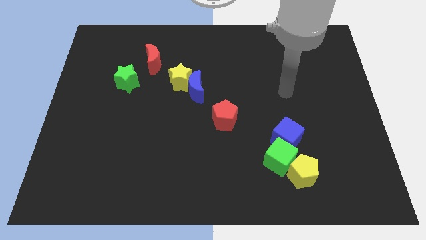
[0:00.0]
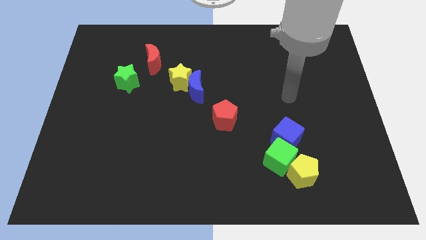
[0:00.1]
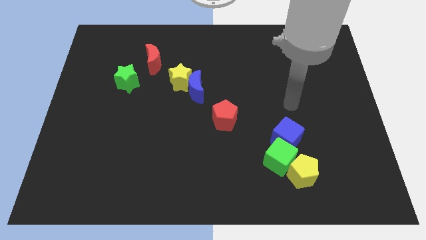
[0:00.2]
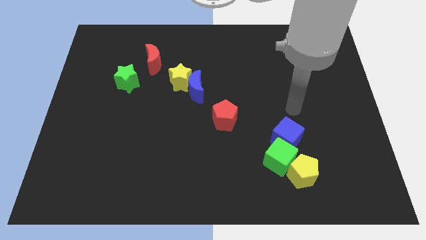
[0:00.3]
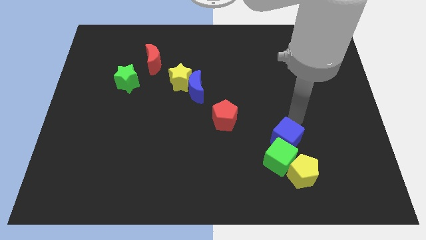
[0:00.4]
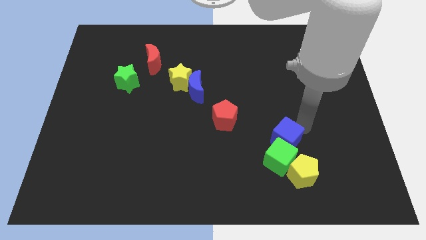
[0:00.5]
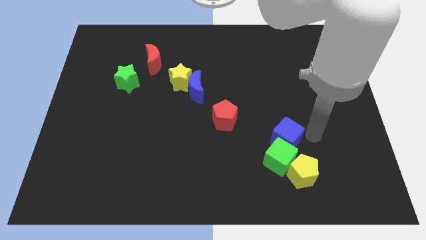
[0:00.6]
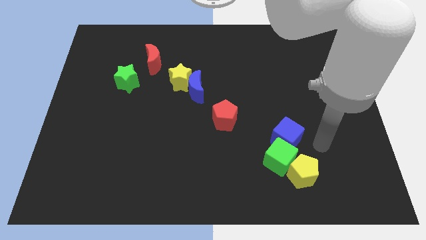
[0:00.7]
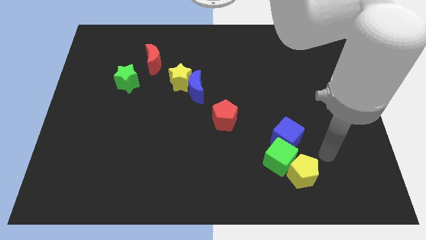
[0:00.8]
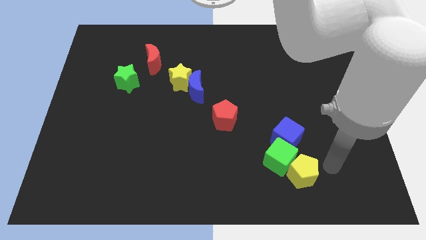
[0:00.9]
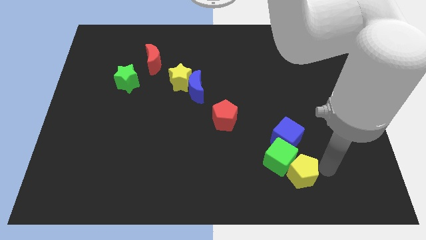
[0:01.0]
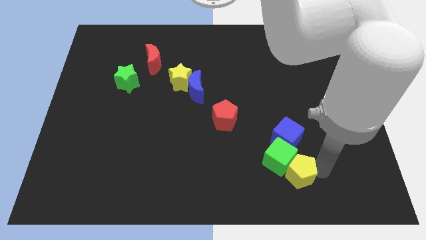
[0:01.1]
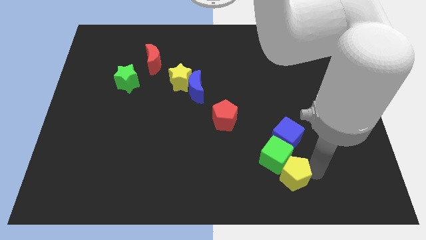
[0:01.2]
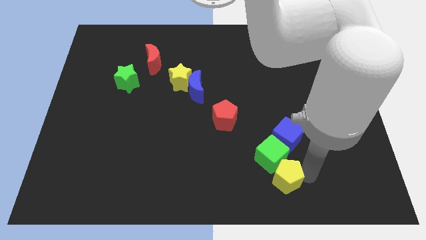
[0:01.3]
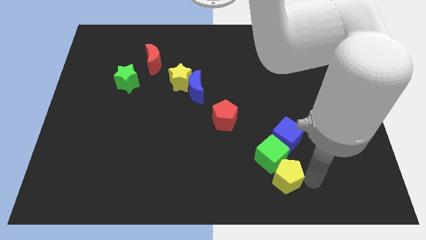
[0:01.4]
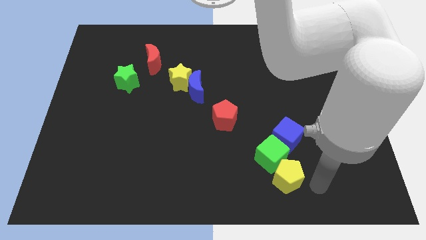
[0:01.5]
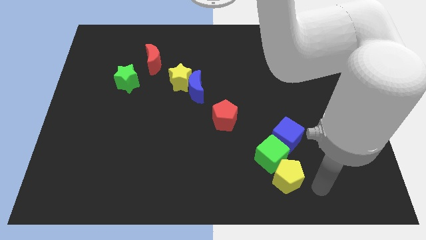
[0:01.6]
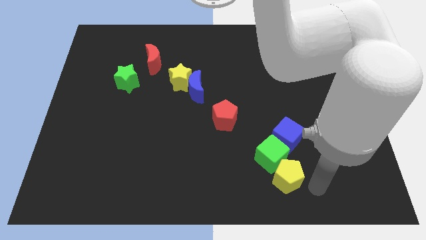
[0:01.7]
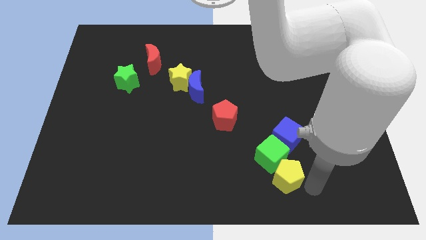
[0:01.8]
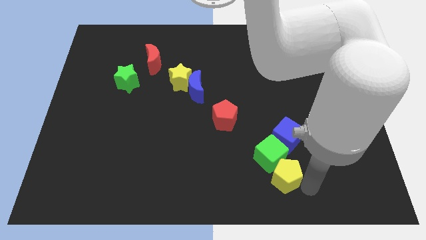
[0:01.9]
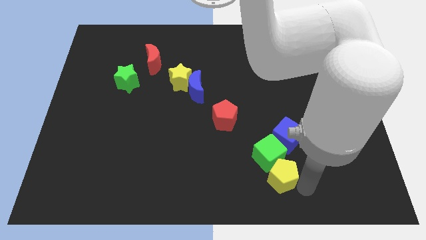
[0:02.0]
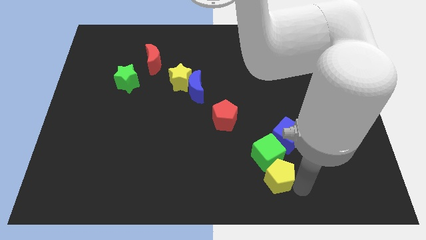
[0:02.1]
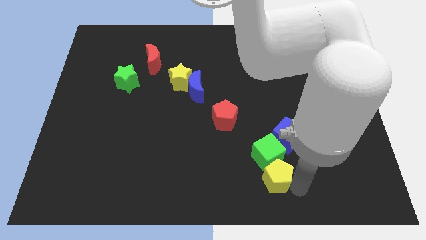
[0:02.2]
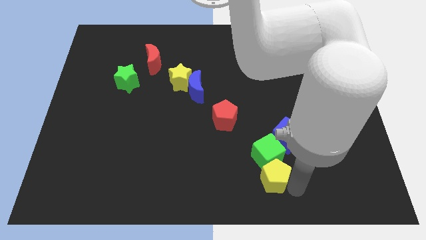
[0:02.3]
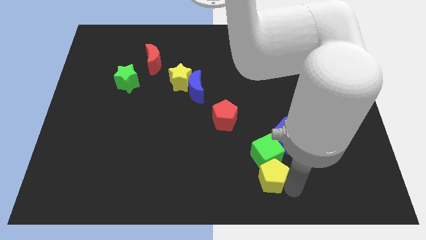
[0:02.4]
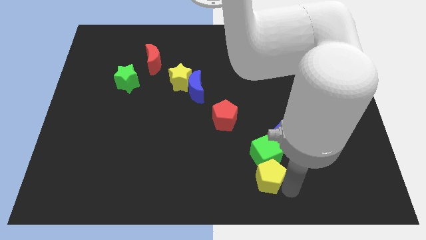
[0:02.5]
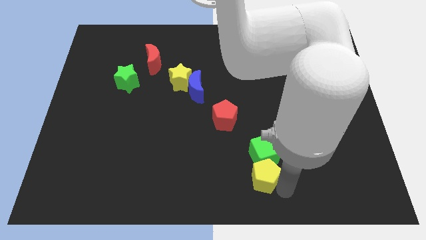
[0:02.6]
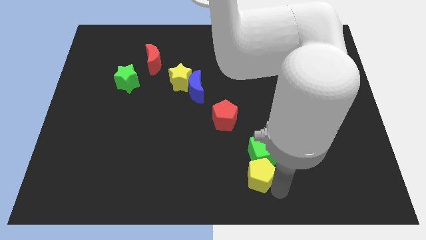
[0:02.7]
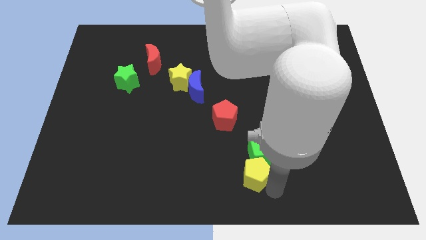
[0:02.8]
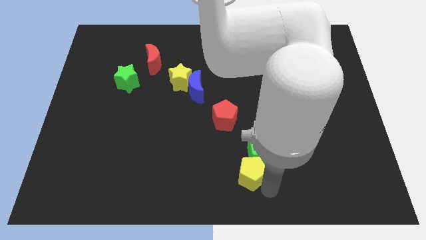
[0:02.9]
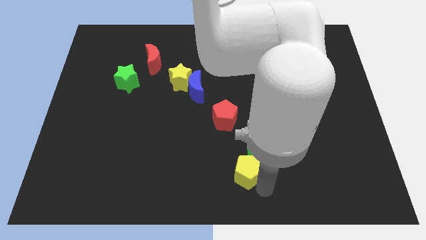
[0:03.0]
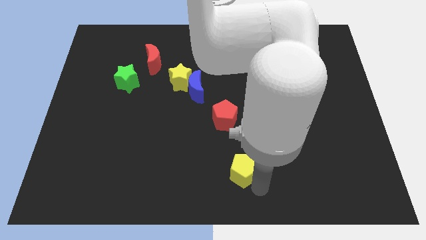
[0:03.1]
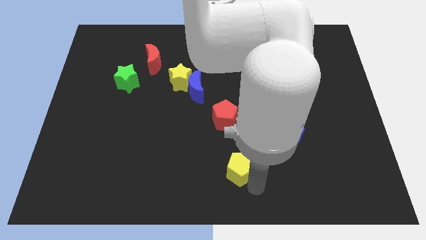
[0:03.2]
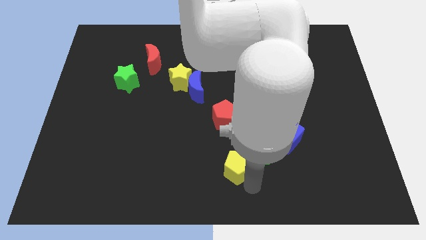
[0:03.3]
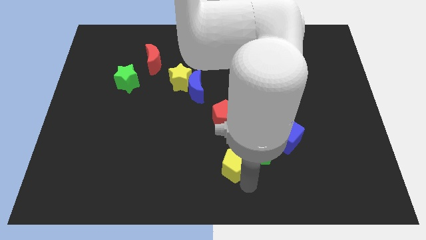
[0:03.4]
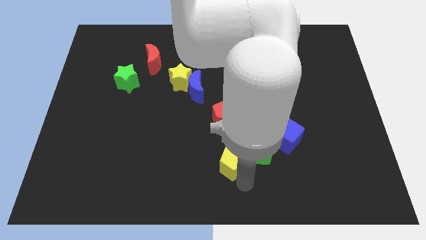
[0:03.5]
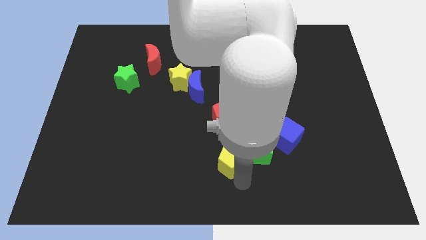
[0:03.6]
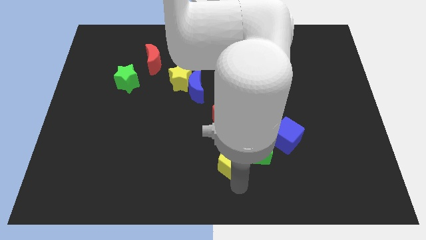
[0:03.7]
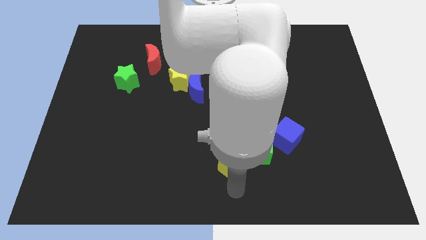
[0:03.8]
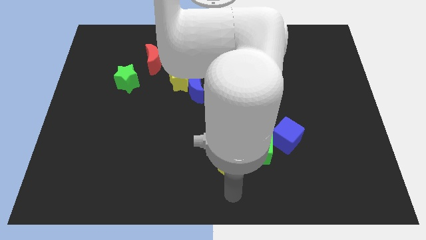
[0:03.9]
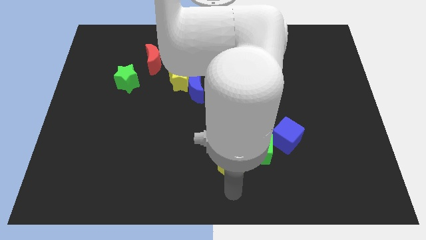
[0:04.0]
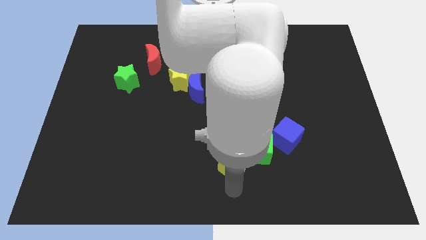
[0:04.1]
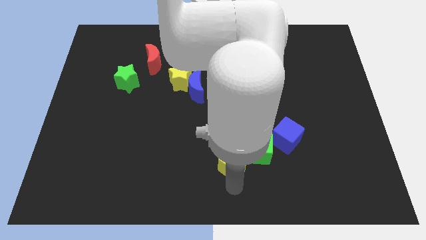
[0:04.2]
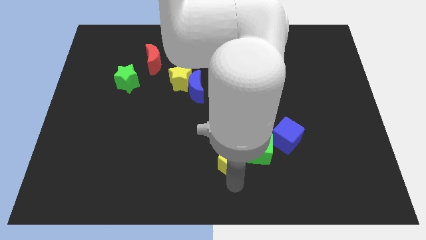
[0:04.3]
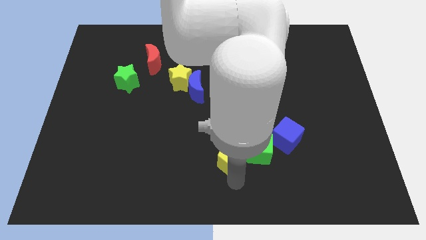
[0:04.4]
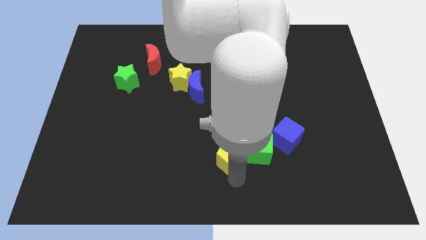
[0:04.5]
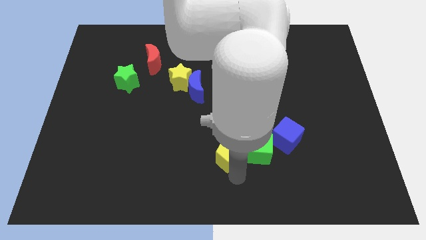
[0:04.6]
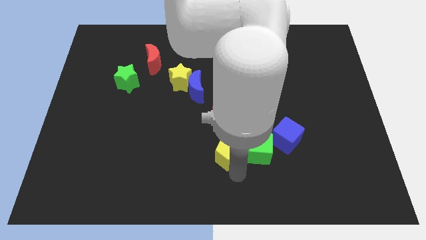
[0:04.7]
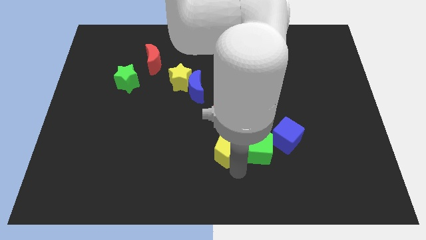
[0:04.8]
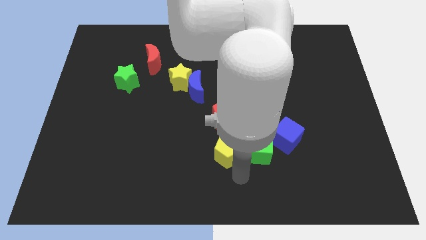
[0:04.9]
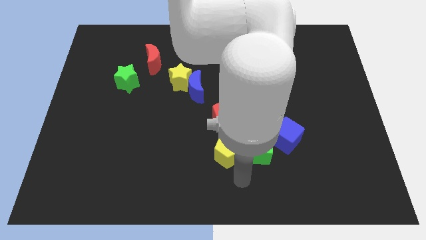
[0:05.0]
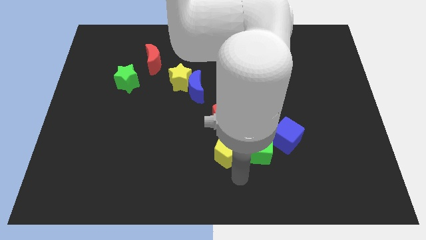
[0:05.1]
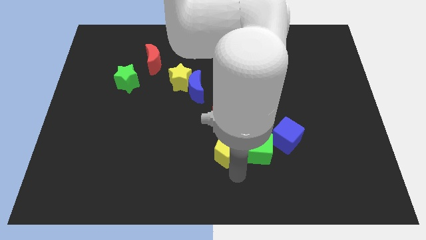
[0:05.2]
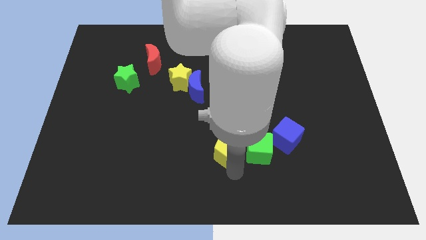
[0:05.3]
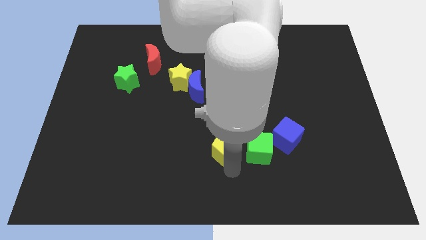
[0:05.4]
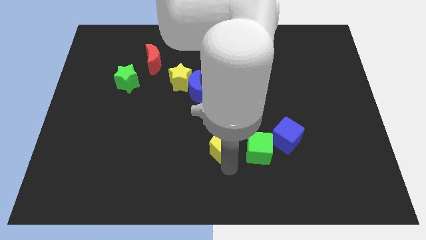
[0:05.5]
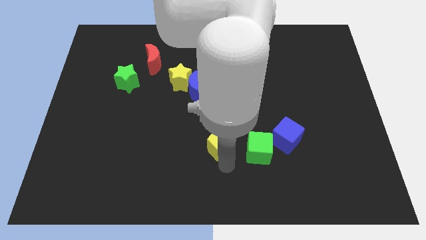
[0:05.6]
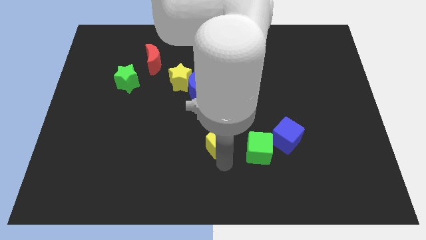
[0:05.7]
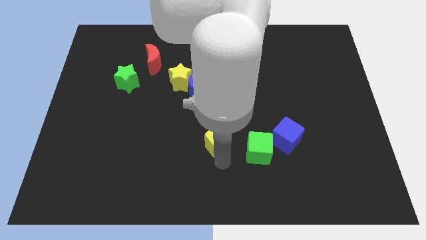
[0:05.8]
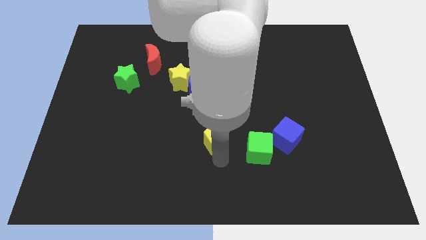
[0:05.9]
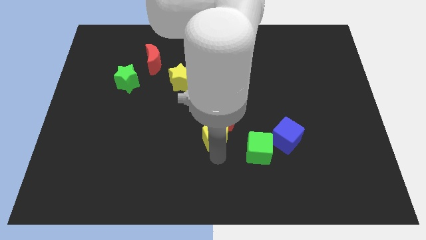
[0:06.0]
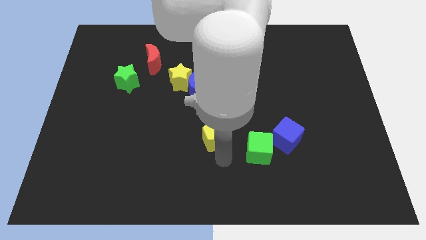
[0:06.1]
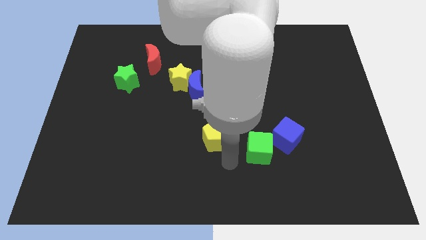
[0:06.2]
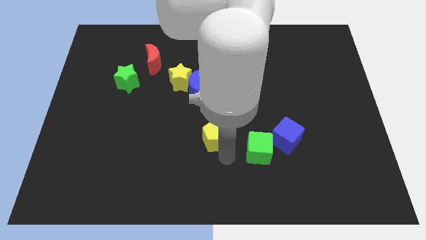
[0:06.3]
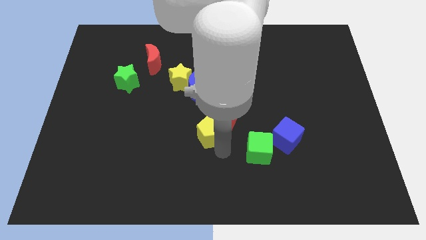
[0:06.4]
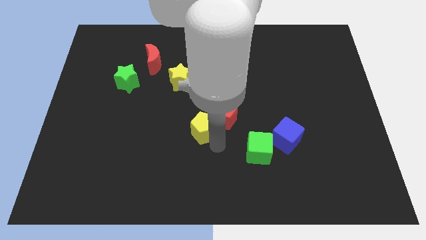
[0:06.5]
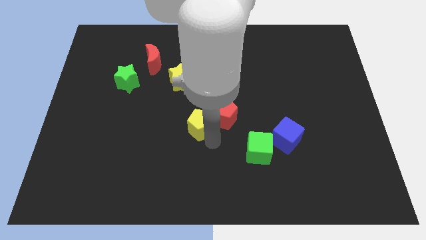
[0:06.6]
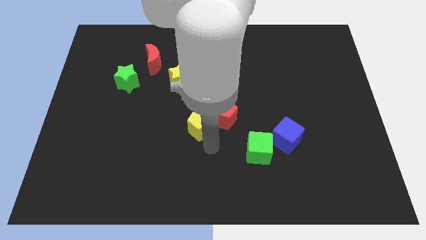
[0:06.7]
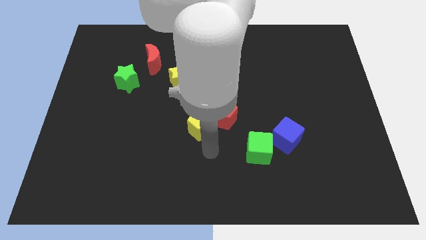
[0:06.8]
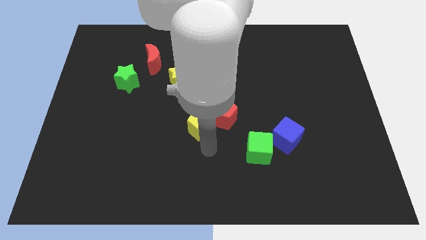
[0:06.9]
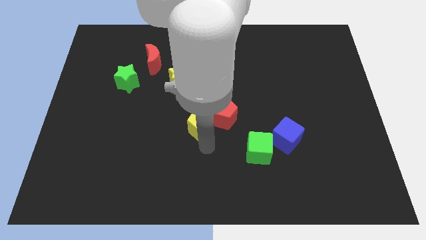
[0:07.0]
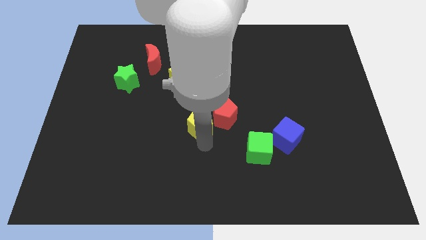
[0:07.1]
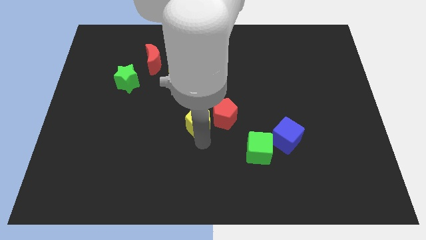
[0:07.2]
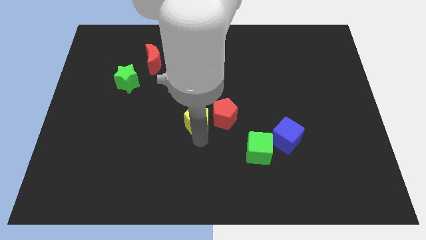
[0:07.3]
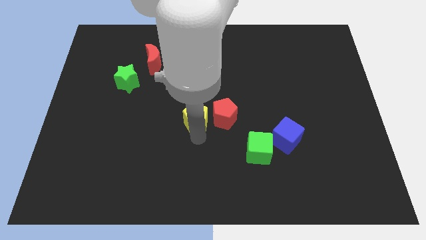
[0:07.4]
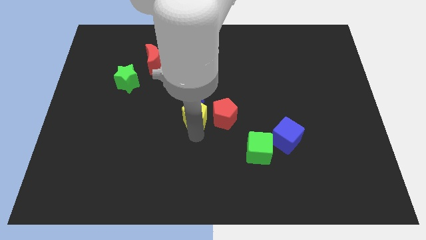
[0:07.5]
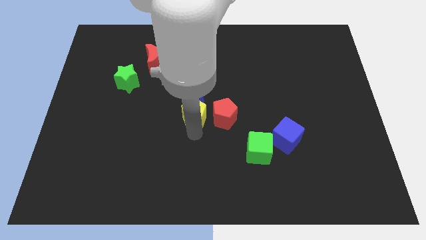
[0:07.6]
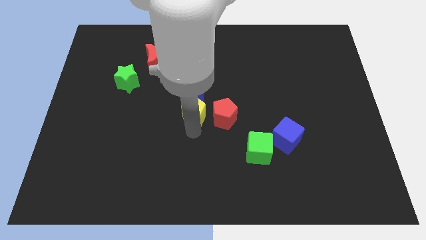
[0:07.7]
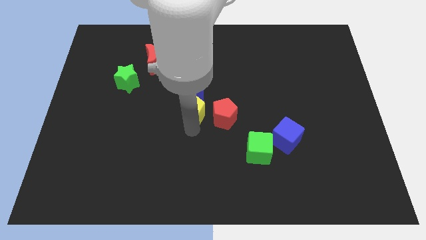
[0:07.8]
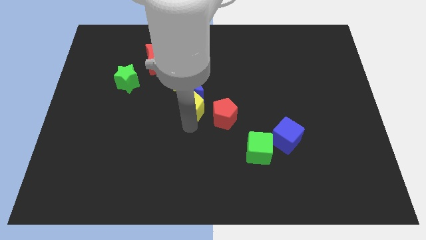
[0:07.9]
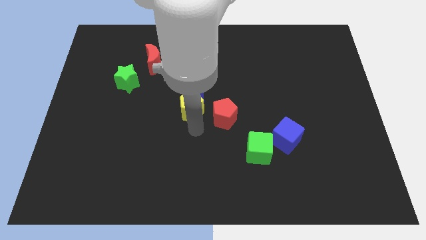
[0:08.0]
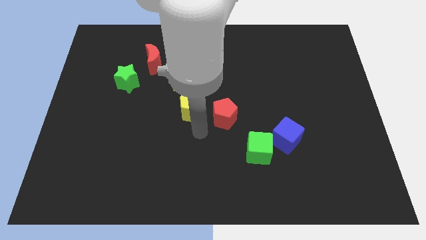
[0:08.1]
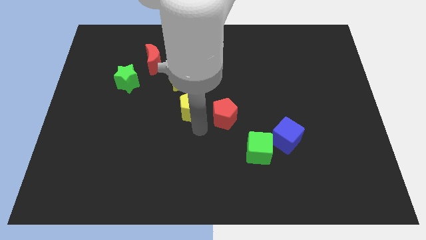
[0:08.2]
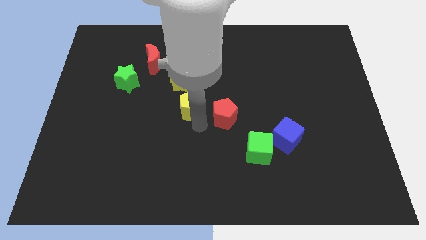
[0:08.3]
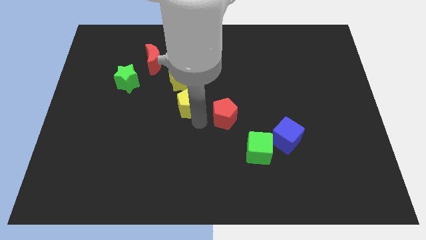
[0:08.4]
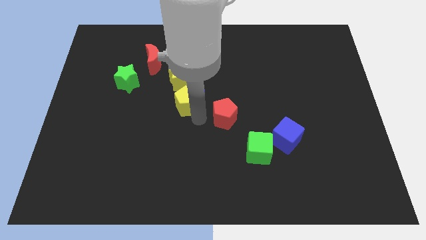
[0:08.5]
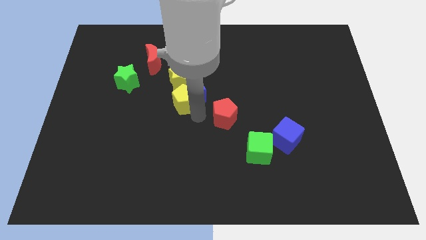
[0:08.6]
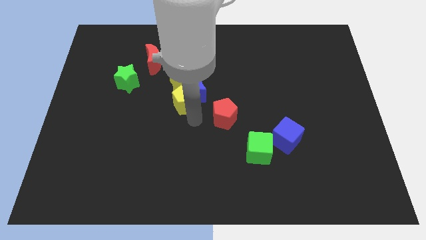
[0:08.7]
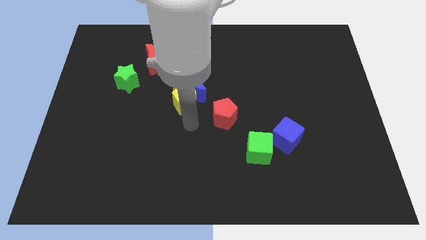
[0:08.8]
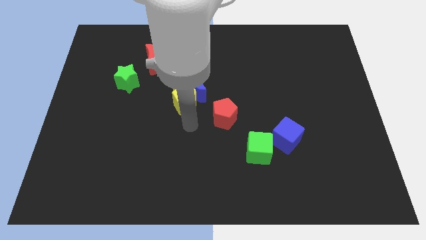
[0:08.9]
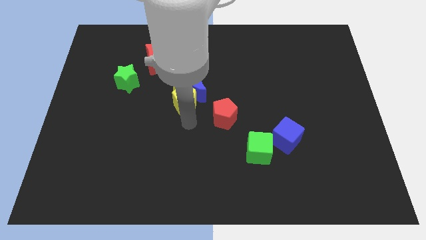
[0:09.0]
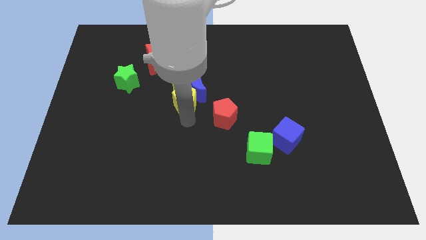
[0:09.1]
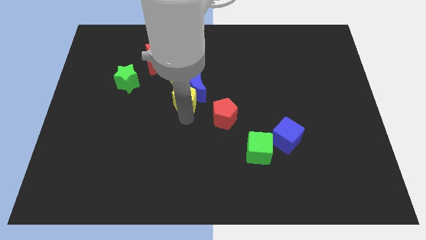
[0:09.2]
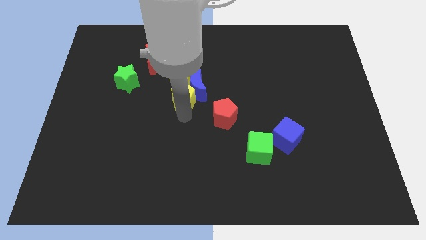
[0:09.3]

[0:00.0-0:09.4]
move the yellow pentagon to the yellow star
